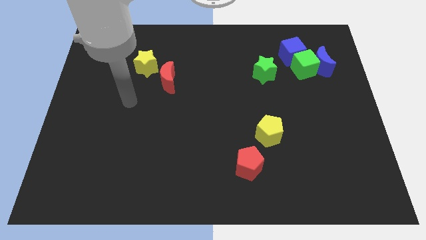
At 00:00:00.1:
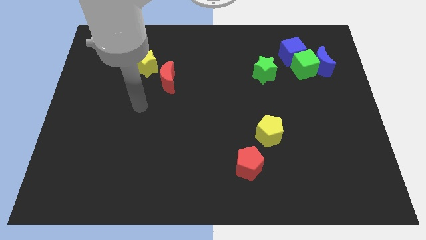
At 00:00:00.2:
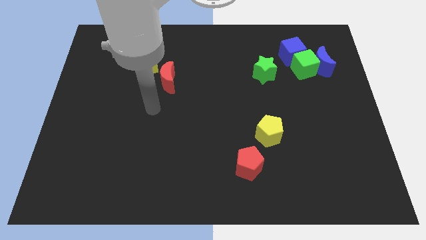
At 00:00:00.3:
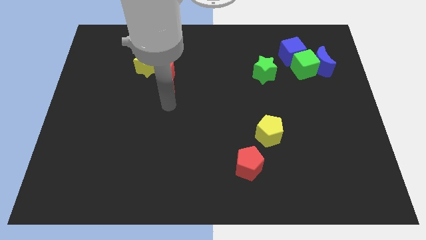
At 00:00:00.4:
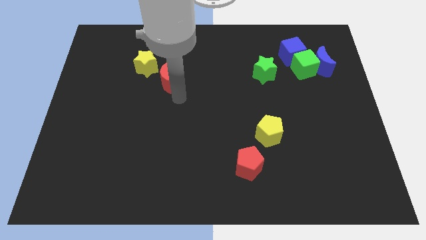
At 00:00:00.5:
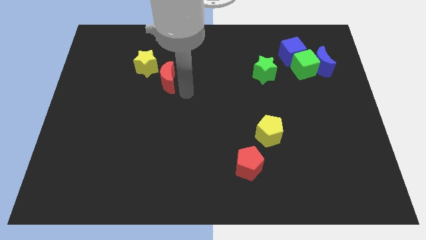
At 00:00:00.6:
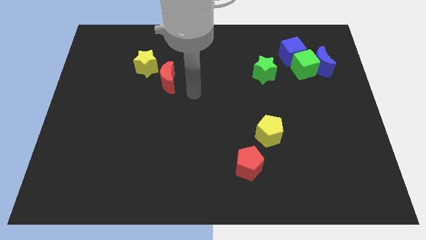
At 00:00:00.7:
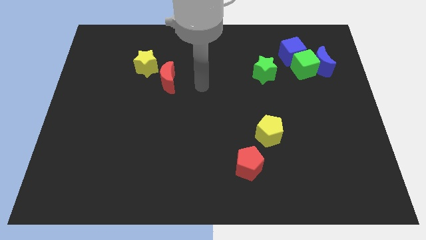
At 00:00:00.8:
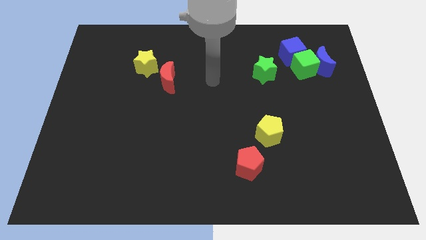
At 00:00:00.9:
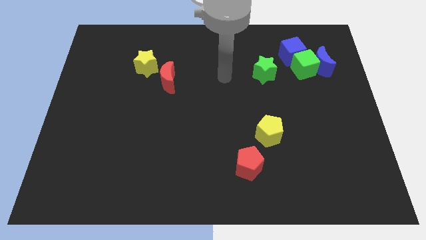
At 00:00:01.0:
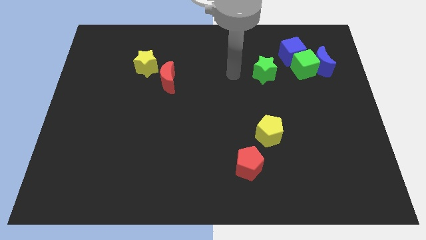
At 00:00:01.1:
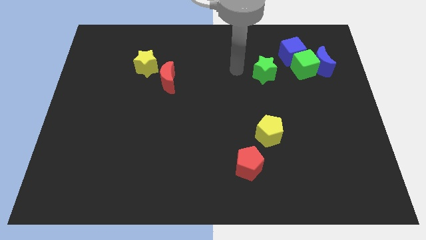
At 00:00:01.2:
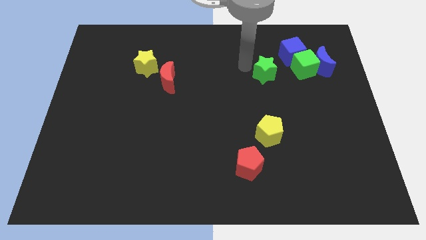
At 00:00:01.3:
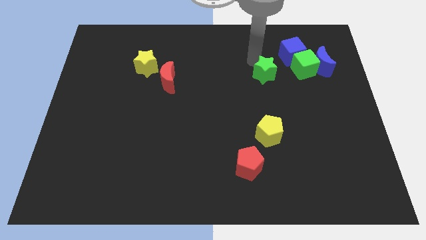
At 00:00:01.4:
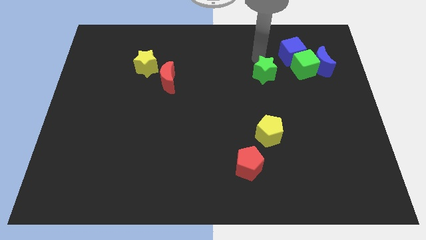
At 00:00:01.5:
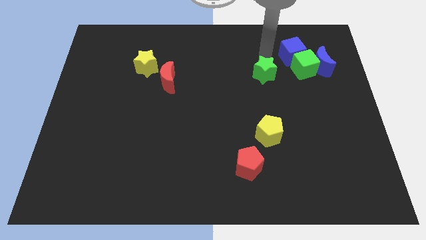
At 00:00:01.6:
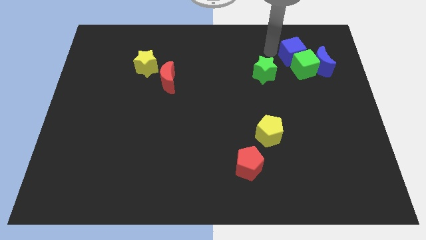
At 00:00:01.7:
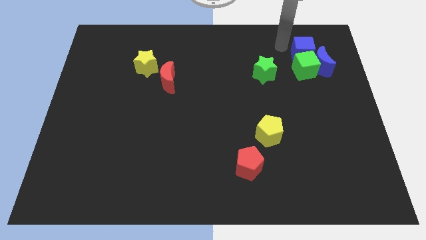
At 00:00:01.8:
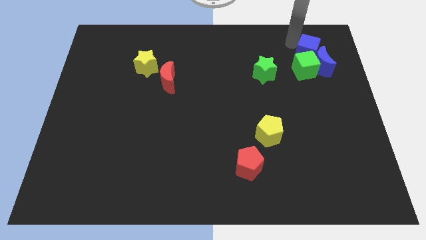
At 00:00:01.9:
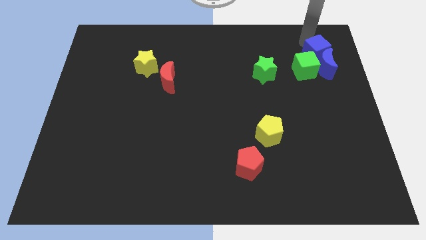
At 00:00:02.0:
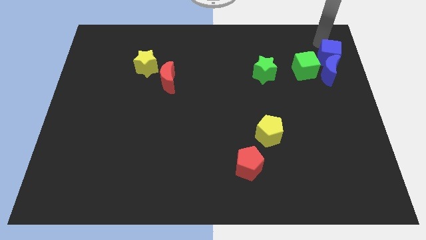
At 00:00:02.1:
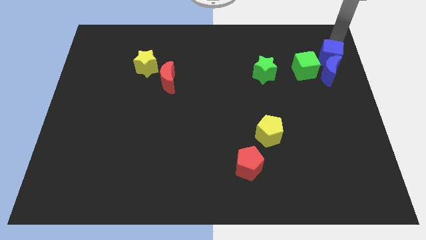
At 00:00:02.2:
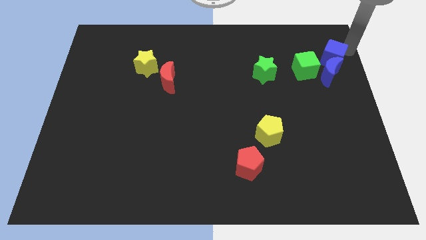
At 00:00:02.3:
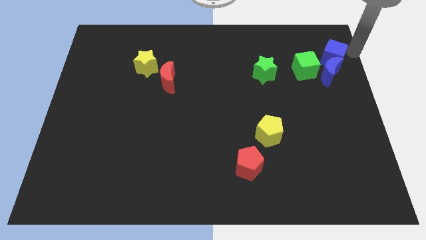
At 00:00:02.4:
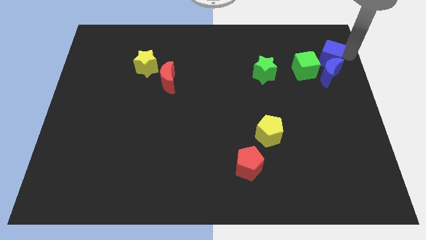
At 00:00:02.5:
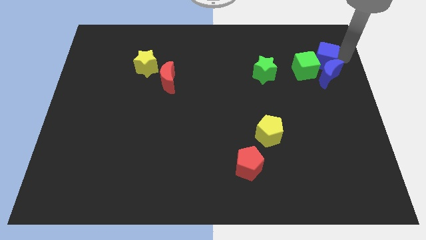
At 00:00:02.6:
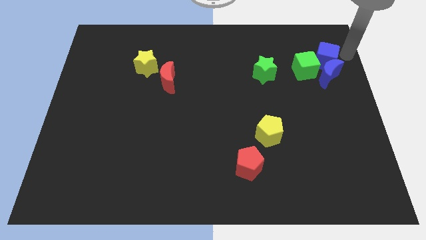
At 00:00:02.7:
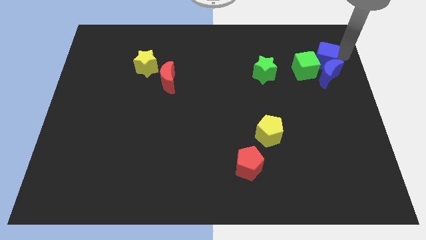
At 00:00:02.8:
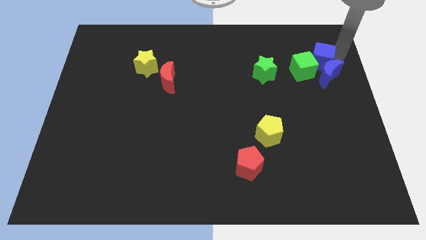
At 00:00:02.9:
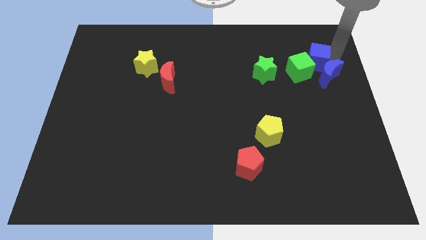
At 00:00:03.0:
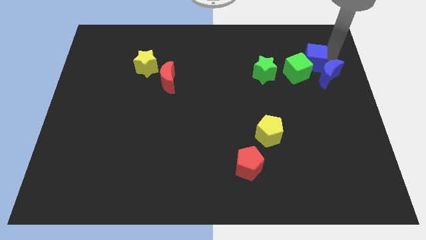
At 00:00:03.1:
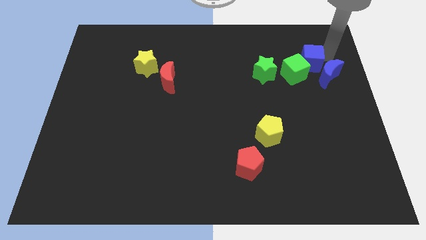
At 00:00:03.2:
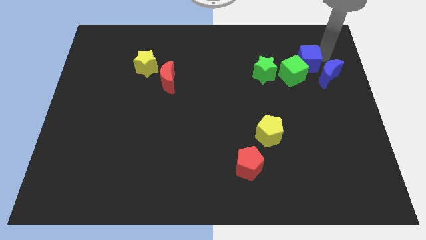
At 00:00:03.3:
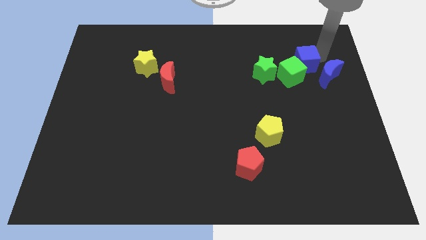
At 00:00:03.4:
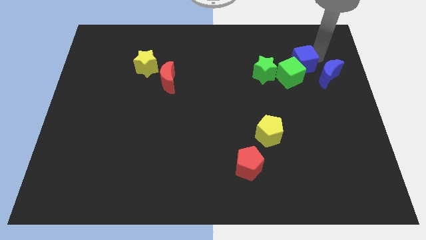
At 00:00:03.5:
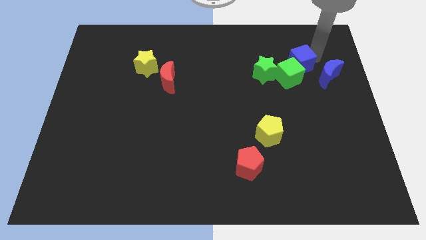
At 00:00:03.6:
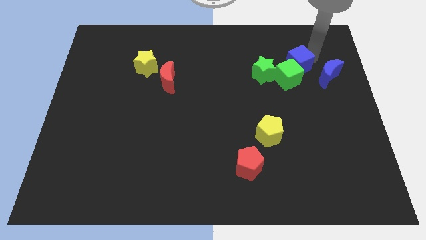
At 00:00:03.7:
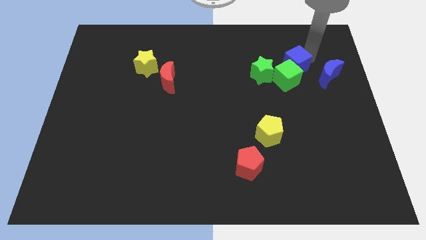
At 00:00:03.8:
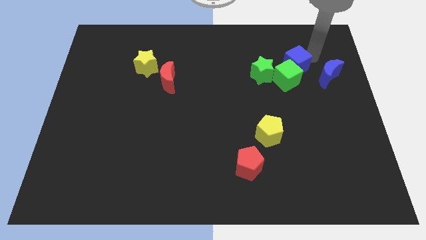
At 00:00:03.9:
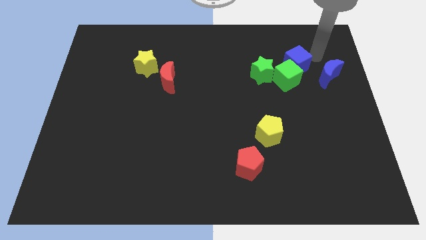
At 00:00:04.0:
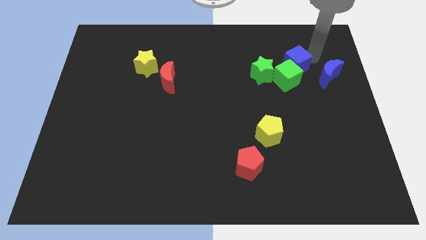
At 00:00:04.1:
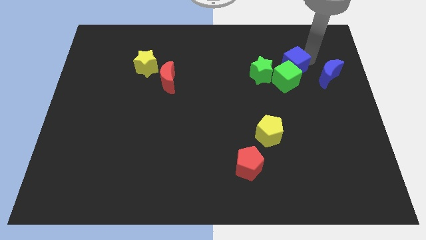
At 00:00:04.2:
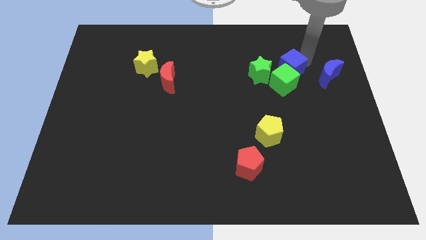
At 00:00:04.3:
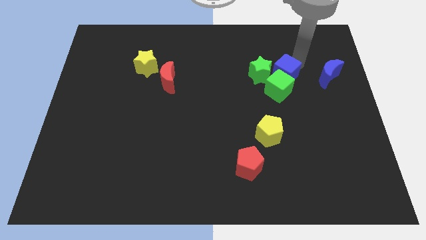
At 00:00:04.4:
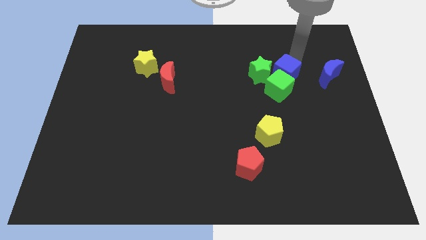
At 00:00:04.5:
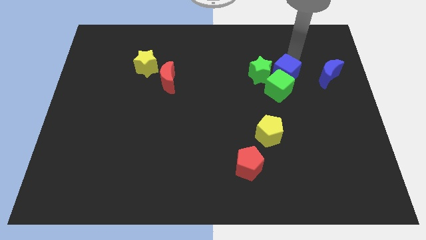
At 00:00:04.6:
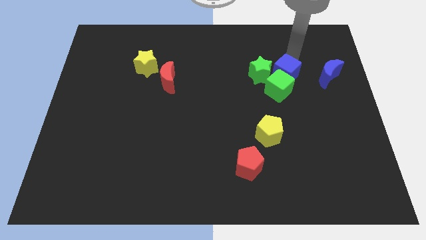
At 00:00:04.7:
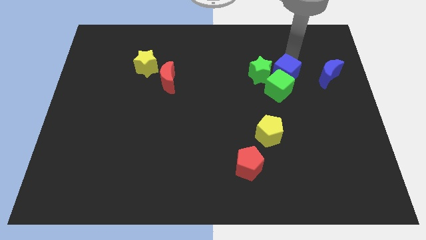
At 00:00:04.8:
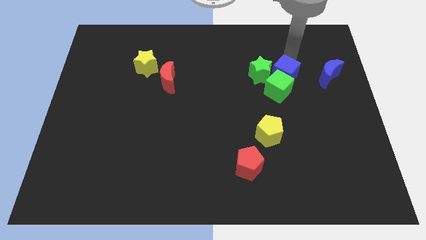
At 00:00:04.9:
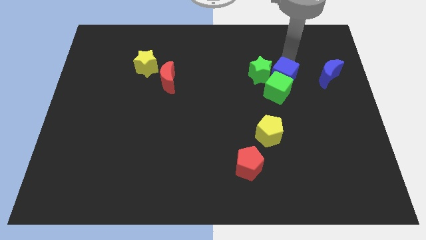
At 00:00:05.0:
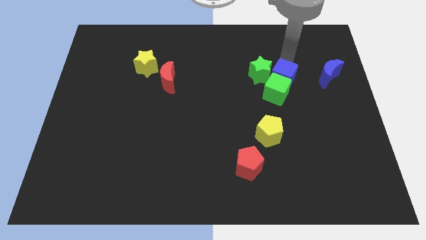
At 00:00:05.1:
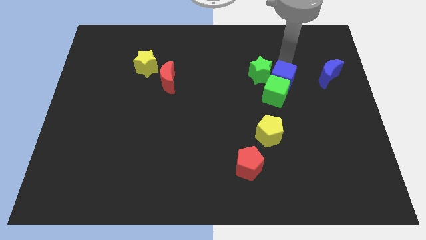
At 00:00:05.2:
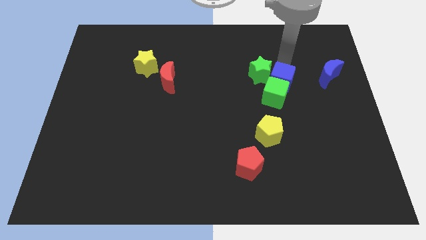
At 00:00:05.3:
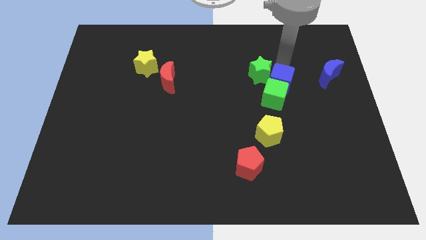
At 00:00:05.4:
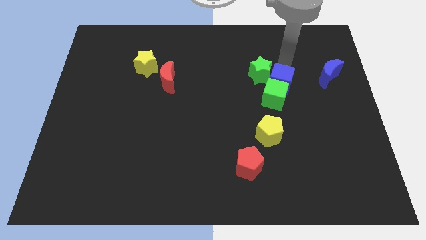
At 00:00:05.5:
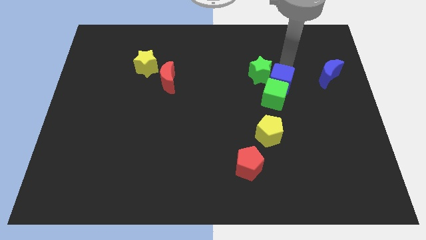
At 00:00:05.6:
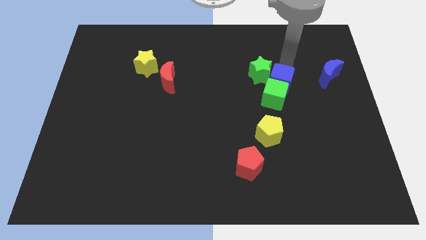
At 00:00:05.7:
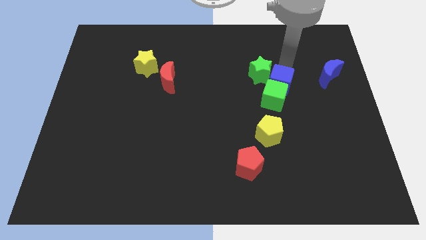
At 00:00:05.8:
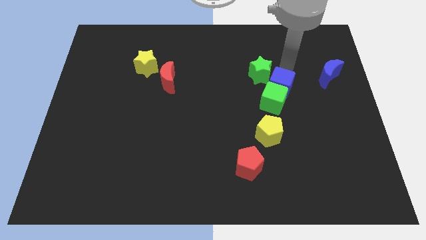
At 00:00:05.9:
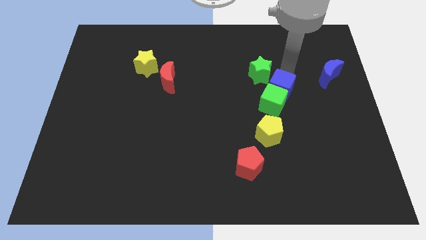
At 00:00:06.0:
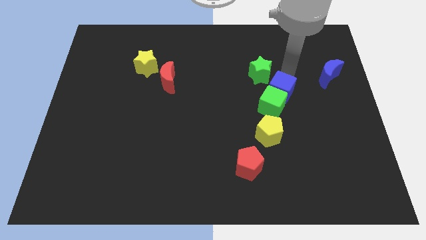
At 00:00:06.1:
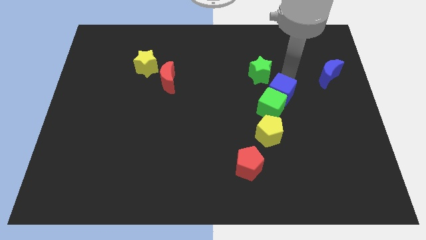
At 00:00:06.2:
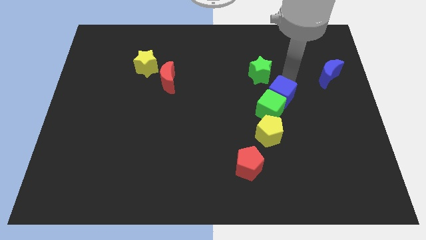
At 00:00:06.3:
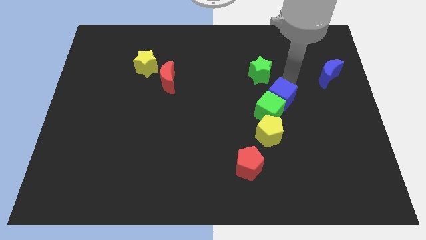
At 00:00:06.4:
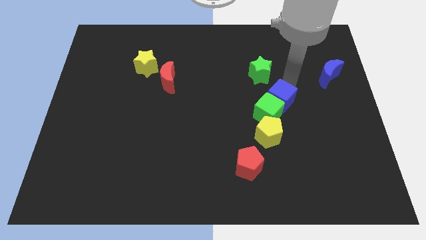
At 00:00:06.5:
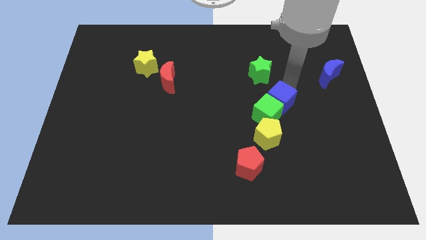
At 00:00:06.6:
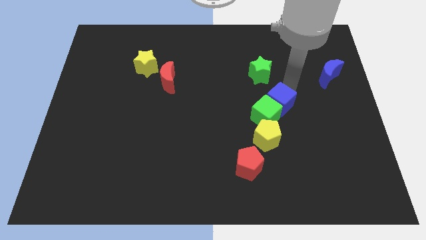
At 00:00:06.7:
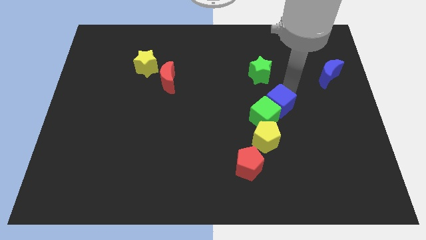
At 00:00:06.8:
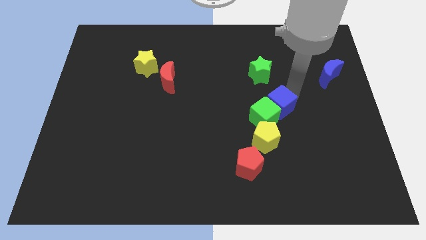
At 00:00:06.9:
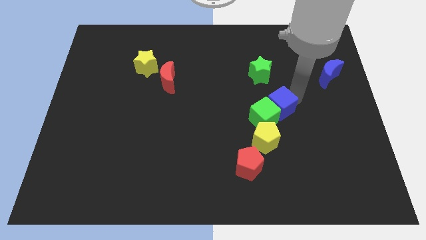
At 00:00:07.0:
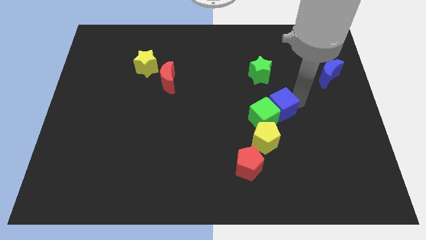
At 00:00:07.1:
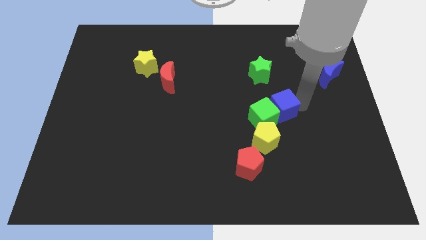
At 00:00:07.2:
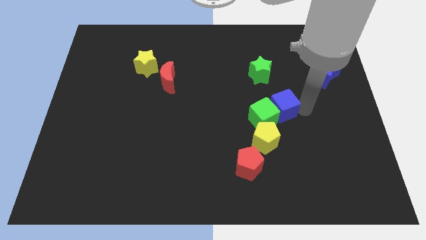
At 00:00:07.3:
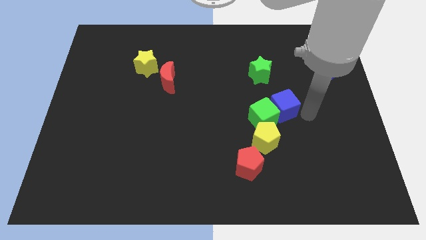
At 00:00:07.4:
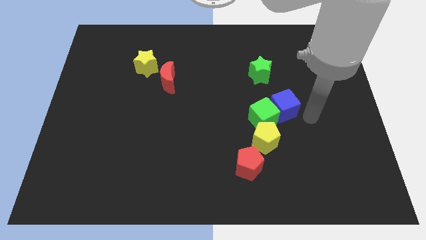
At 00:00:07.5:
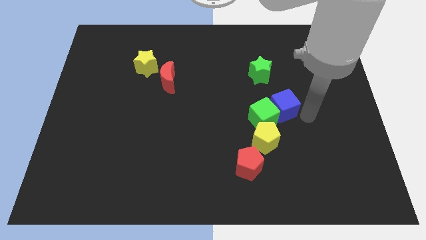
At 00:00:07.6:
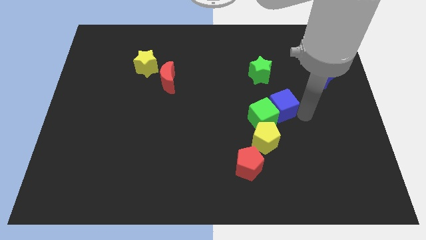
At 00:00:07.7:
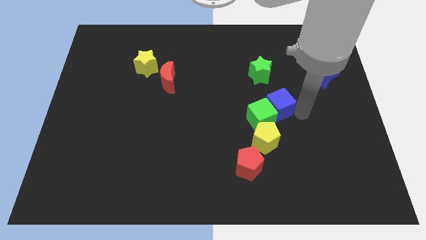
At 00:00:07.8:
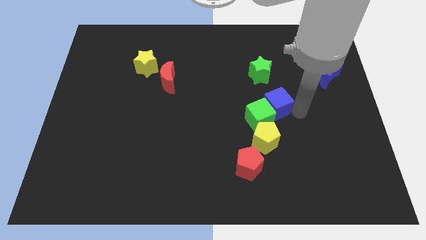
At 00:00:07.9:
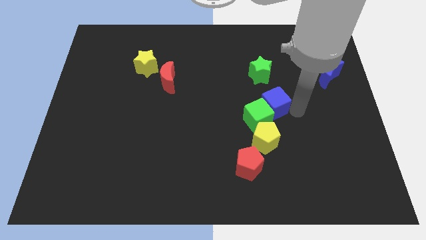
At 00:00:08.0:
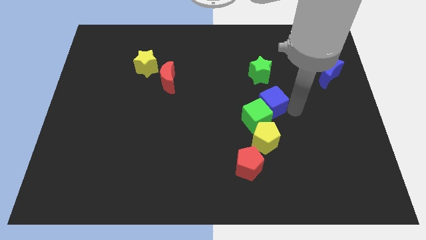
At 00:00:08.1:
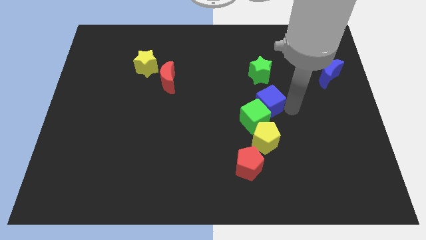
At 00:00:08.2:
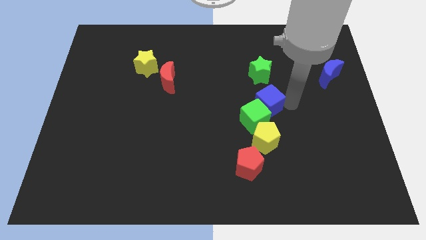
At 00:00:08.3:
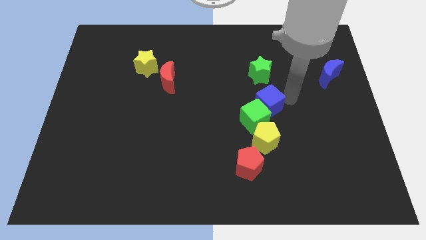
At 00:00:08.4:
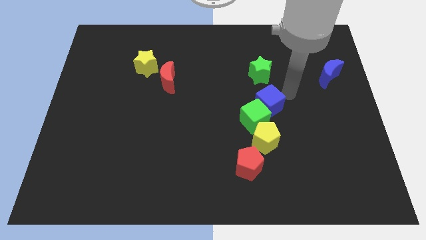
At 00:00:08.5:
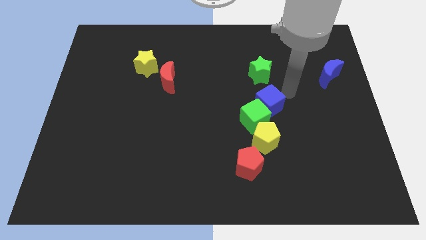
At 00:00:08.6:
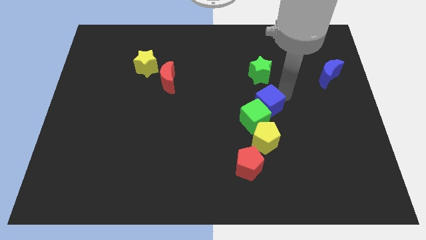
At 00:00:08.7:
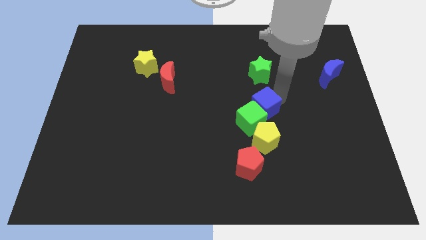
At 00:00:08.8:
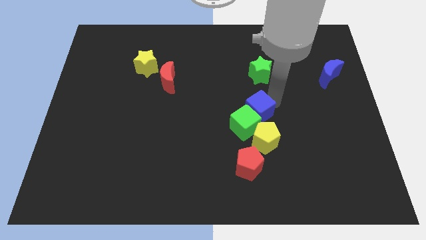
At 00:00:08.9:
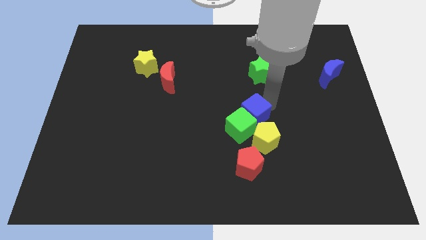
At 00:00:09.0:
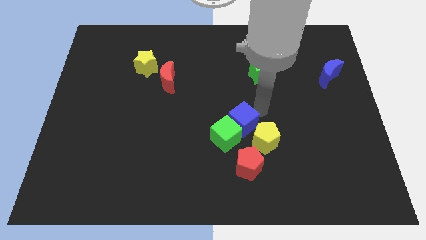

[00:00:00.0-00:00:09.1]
put the blue cube left of the yellow pentagon
